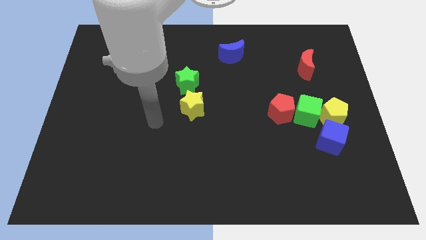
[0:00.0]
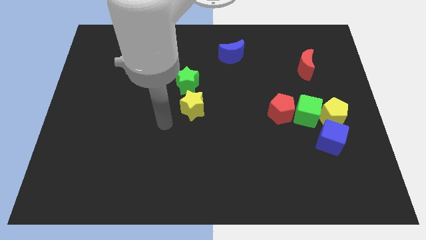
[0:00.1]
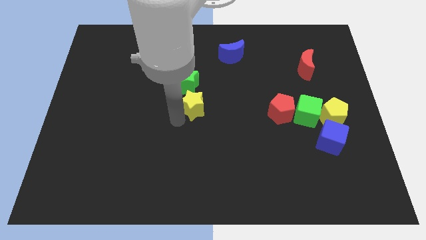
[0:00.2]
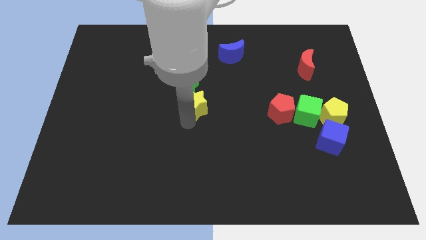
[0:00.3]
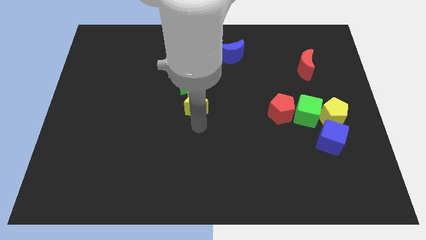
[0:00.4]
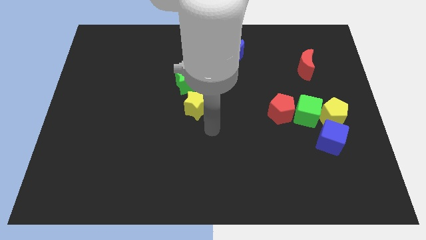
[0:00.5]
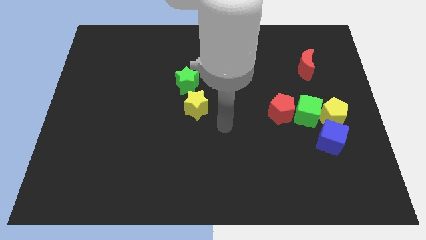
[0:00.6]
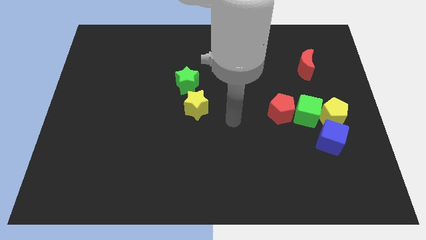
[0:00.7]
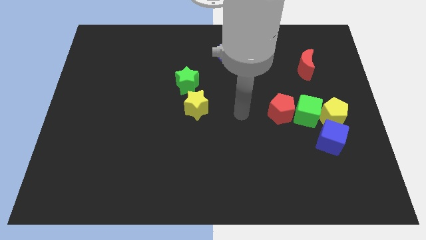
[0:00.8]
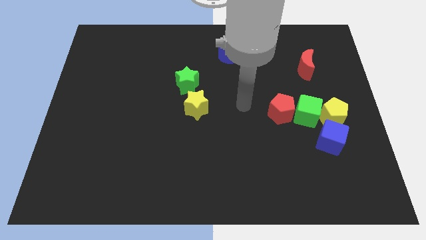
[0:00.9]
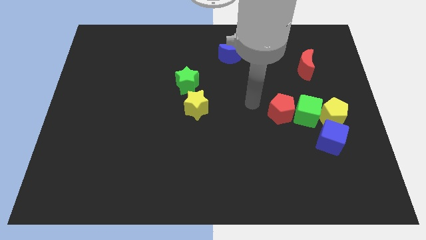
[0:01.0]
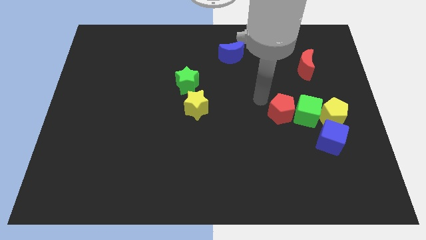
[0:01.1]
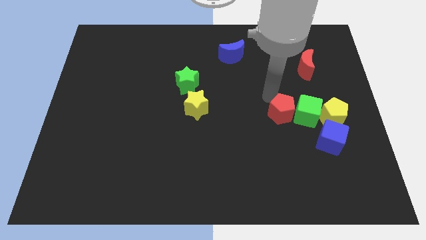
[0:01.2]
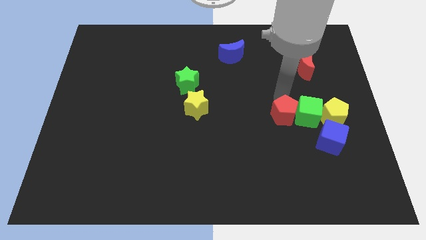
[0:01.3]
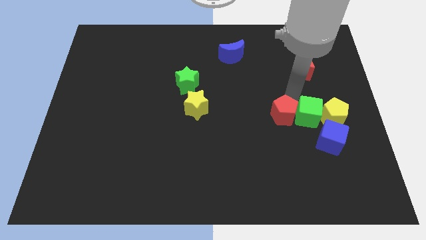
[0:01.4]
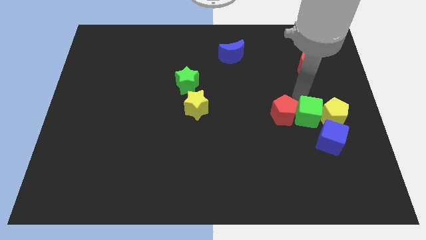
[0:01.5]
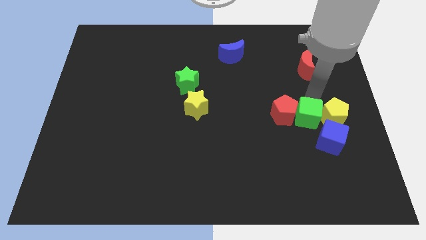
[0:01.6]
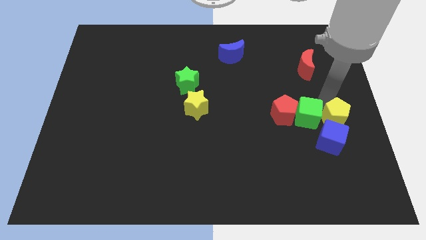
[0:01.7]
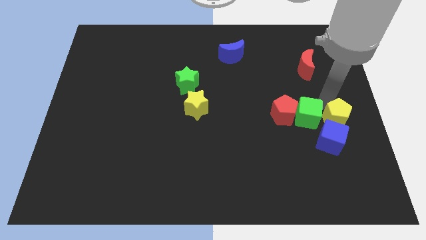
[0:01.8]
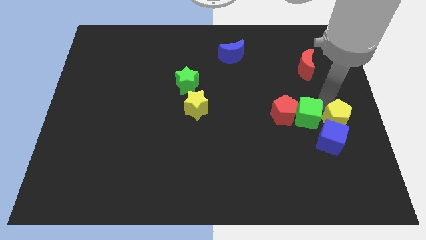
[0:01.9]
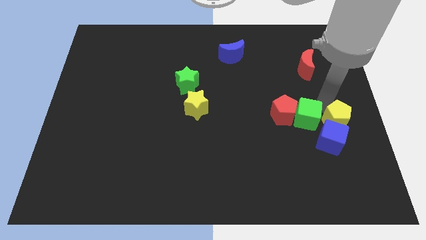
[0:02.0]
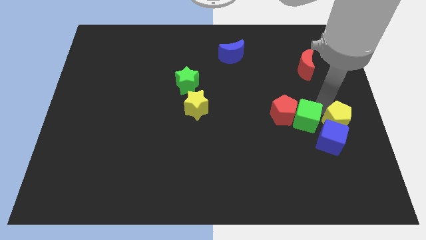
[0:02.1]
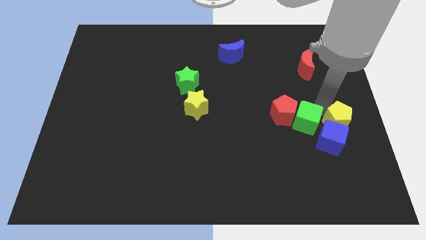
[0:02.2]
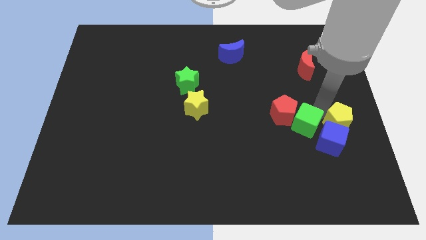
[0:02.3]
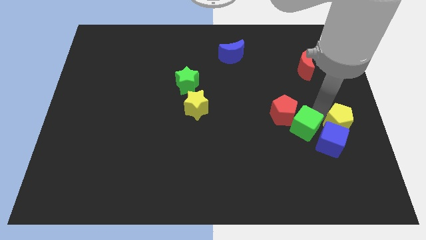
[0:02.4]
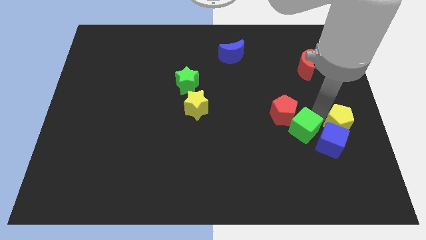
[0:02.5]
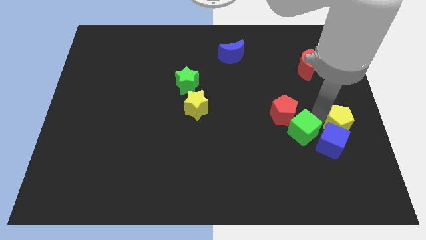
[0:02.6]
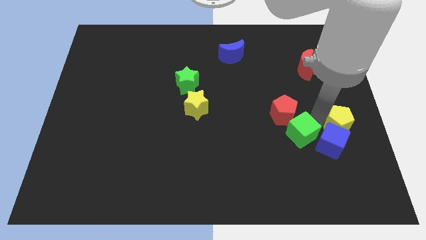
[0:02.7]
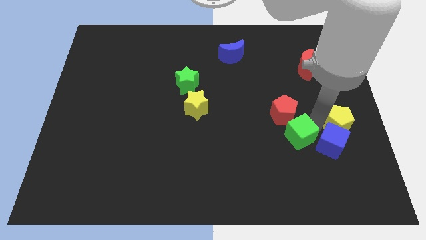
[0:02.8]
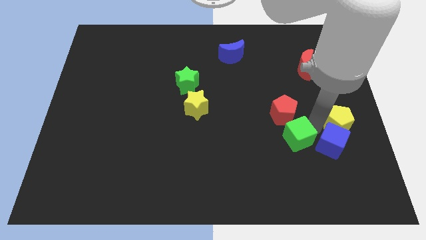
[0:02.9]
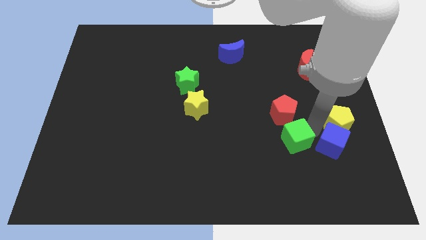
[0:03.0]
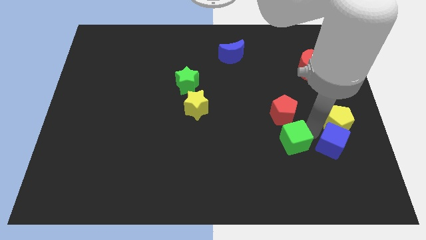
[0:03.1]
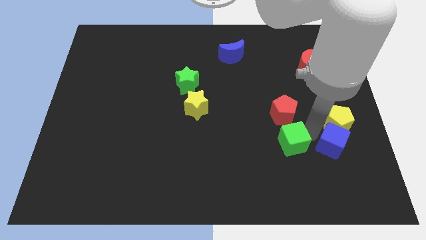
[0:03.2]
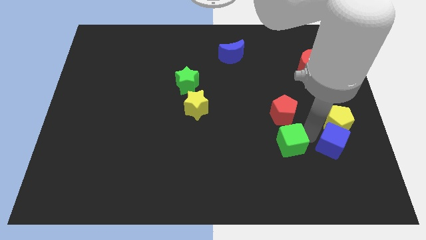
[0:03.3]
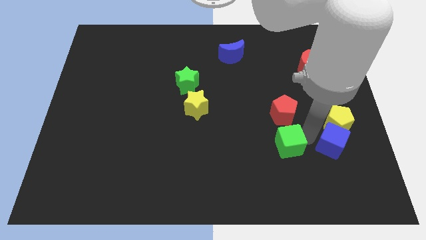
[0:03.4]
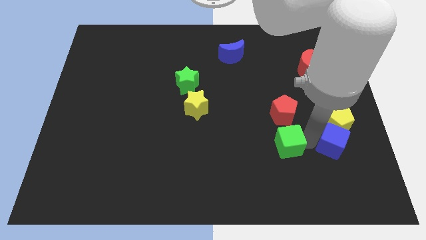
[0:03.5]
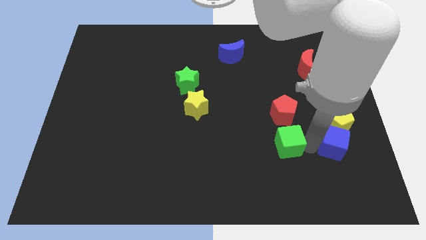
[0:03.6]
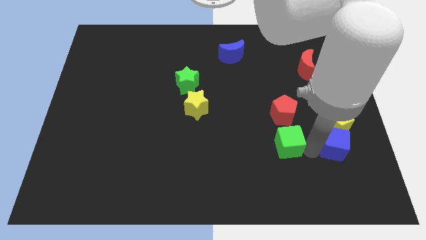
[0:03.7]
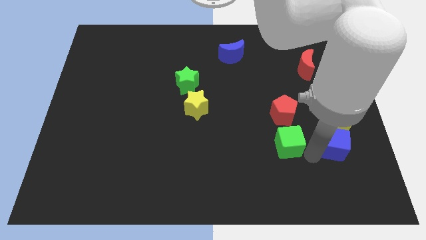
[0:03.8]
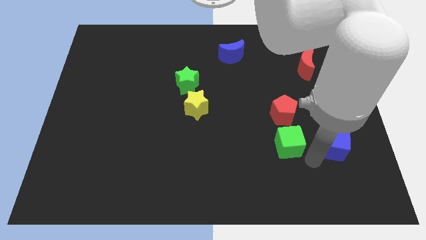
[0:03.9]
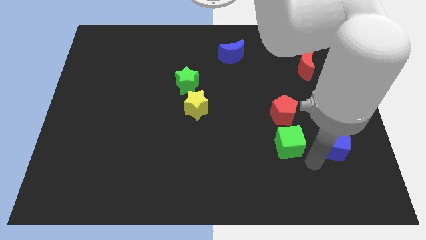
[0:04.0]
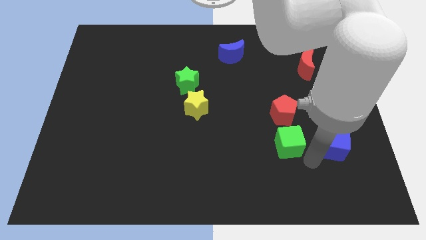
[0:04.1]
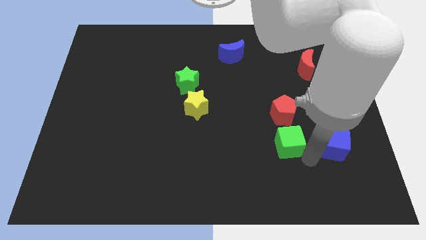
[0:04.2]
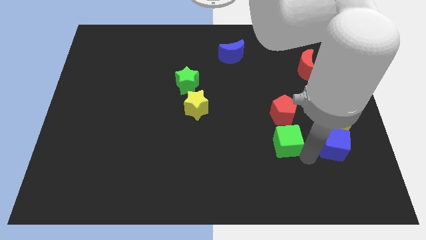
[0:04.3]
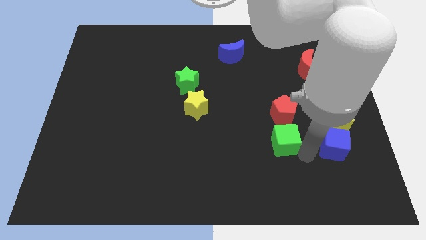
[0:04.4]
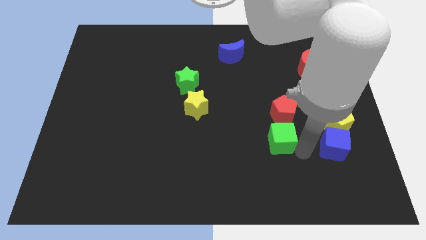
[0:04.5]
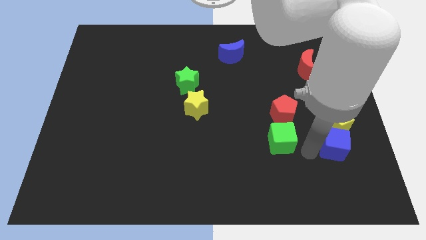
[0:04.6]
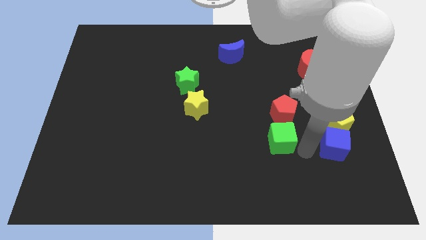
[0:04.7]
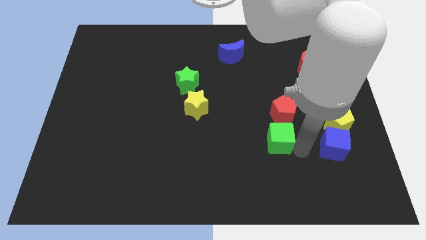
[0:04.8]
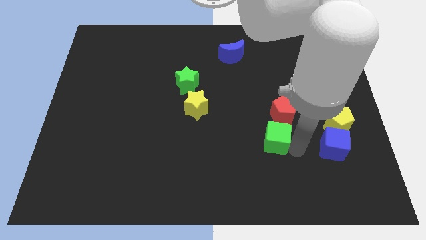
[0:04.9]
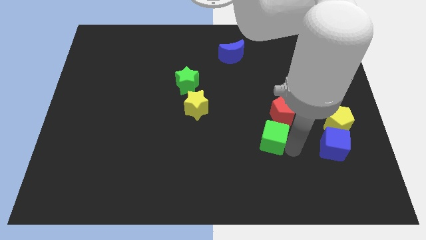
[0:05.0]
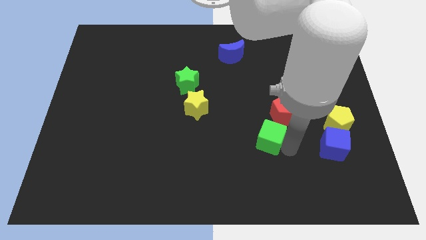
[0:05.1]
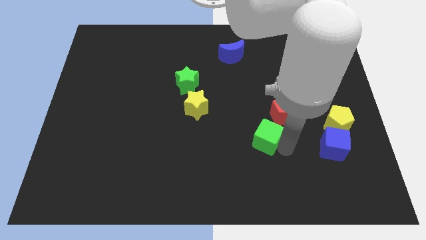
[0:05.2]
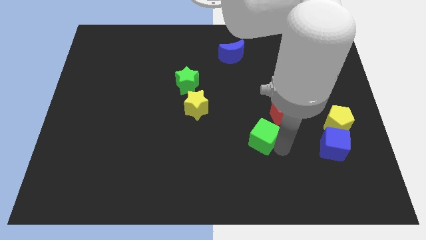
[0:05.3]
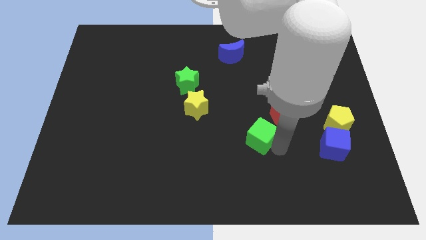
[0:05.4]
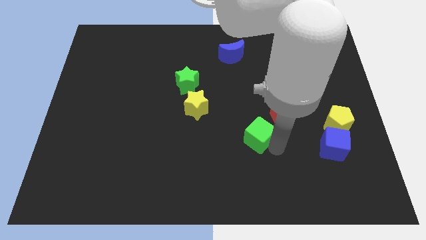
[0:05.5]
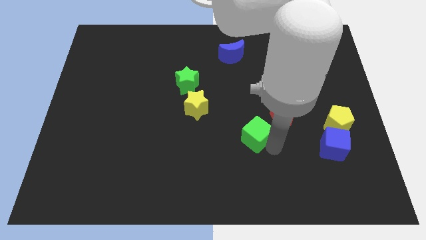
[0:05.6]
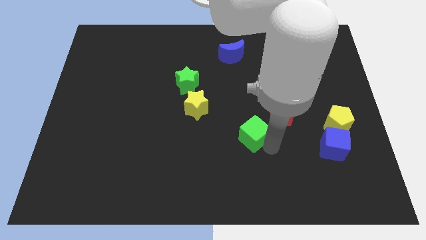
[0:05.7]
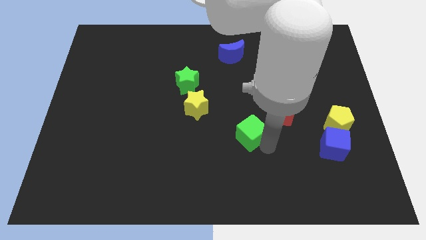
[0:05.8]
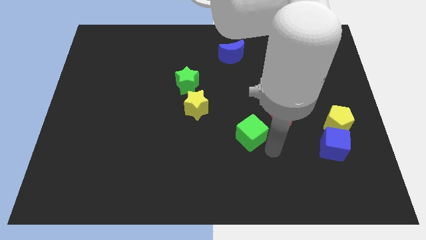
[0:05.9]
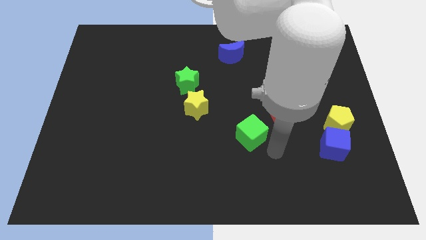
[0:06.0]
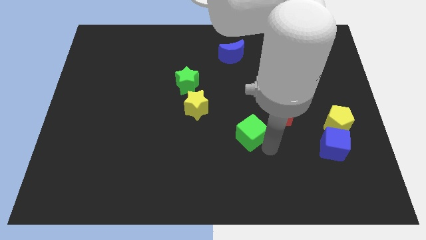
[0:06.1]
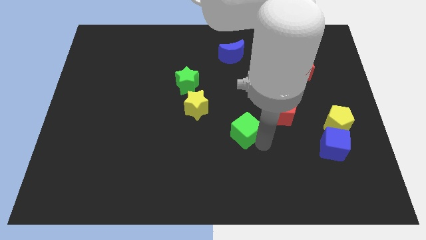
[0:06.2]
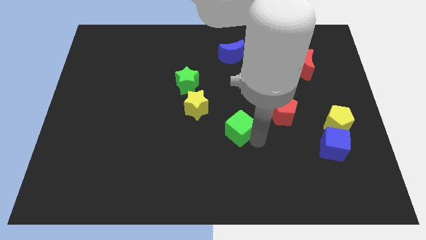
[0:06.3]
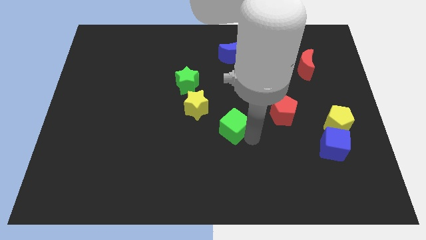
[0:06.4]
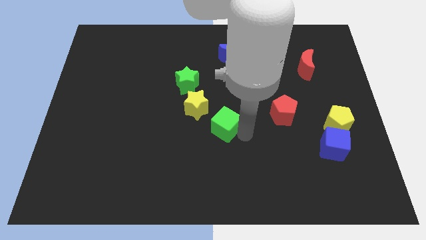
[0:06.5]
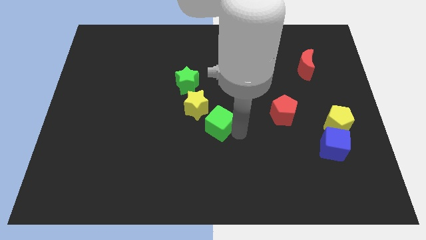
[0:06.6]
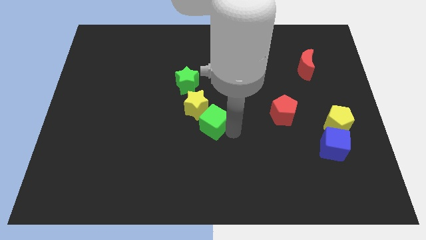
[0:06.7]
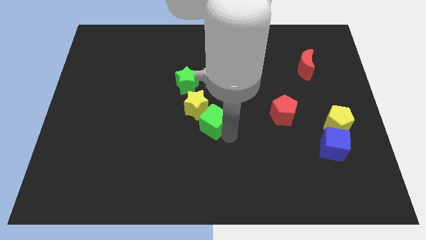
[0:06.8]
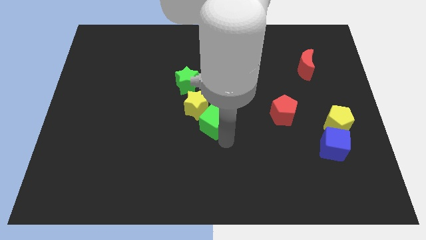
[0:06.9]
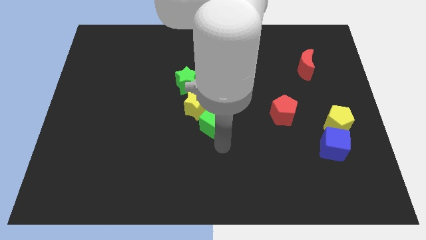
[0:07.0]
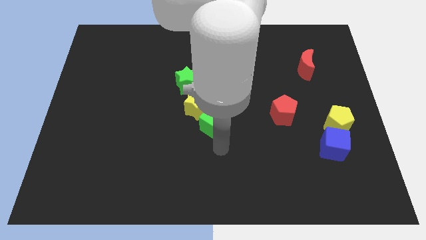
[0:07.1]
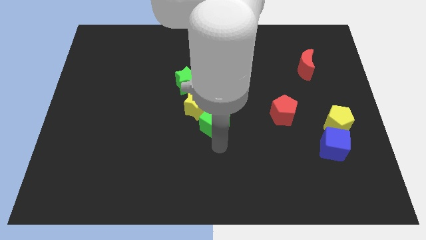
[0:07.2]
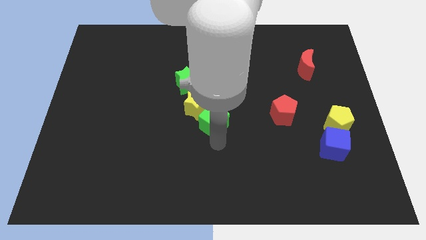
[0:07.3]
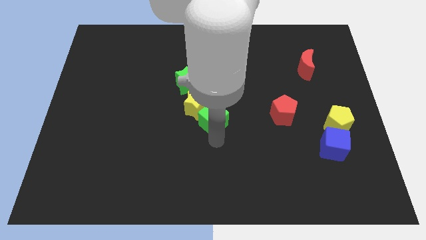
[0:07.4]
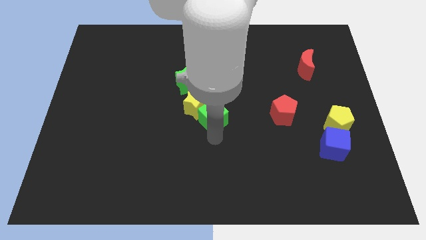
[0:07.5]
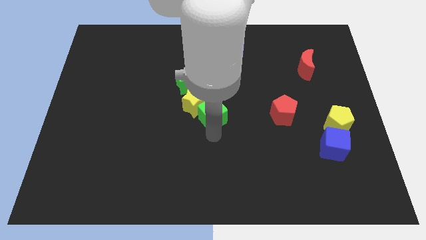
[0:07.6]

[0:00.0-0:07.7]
push the green cube to the bottom right side of the green star
